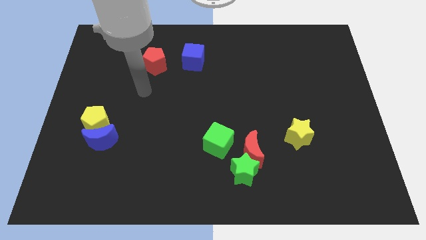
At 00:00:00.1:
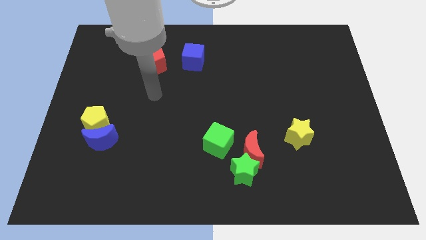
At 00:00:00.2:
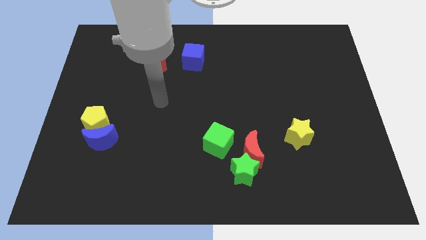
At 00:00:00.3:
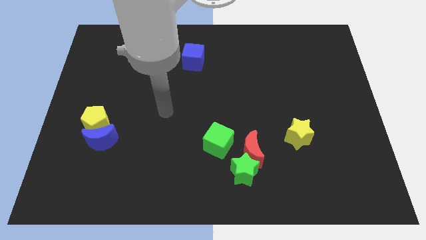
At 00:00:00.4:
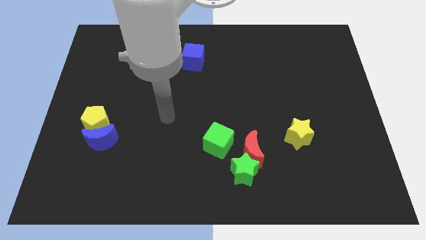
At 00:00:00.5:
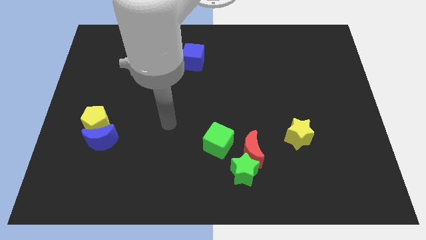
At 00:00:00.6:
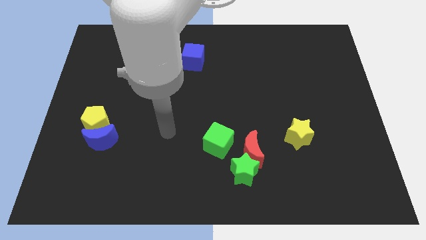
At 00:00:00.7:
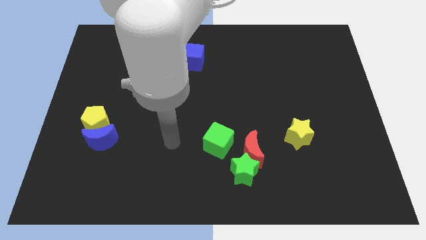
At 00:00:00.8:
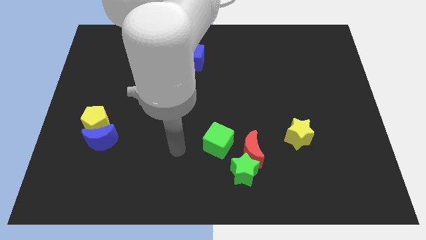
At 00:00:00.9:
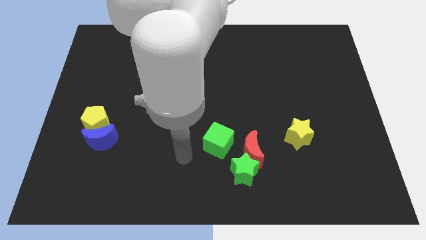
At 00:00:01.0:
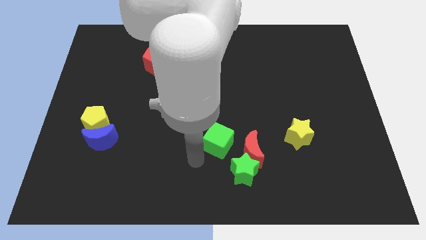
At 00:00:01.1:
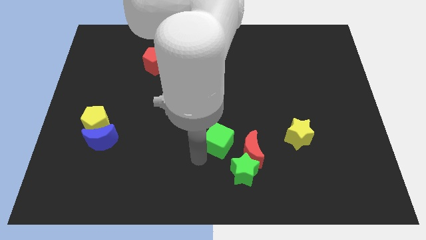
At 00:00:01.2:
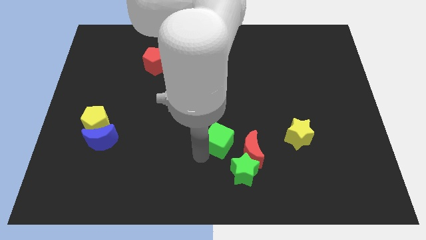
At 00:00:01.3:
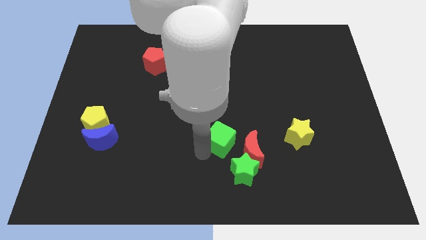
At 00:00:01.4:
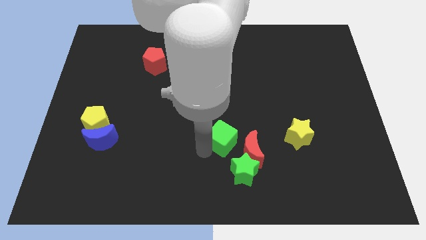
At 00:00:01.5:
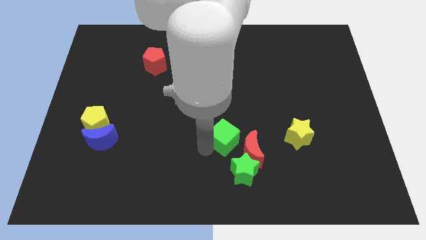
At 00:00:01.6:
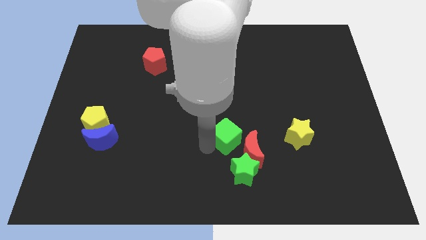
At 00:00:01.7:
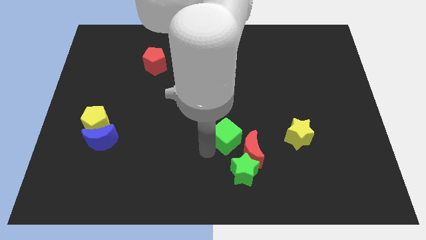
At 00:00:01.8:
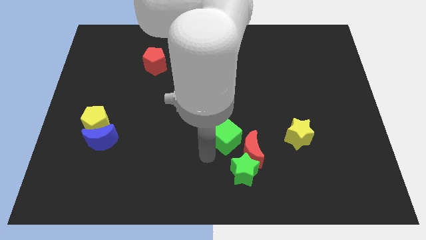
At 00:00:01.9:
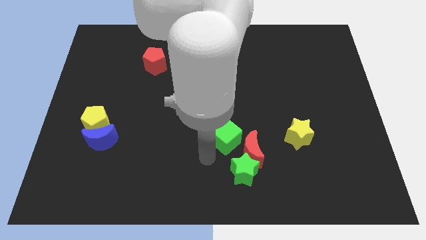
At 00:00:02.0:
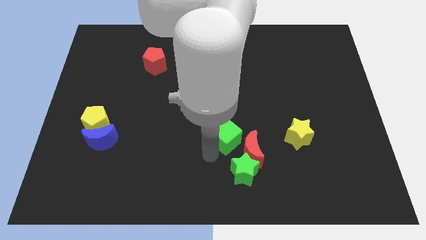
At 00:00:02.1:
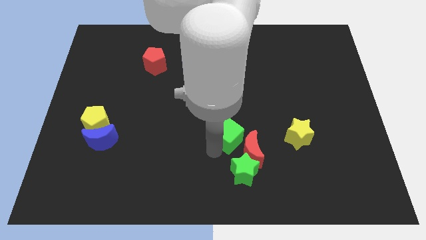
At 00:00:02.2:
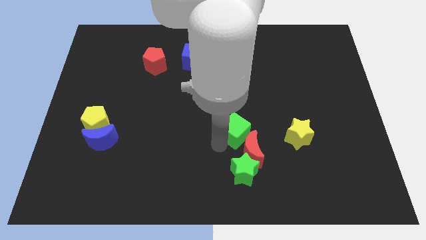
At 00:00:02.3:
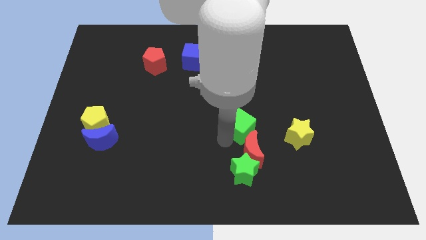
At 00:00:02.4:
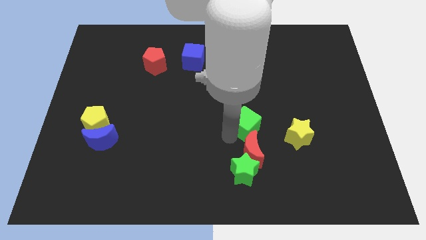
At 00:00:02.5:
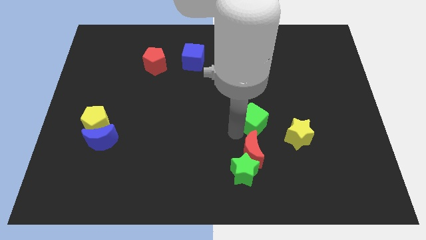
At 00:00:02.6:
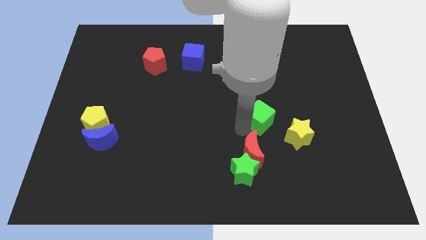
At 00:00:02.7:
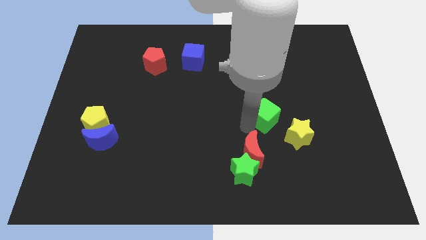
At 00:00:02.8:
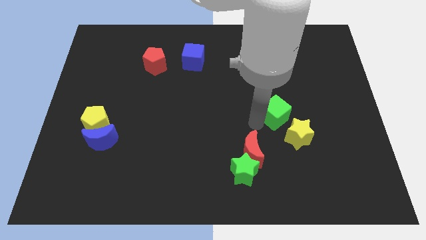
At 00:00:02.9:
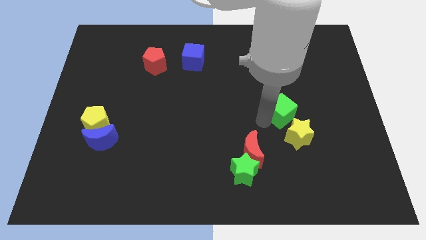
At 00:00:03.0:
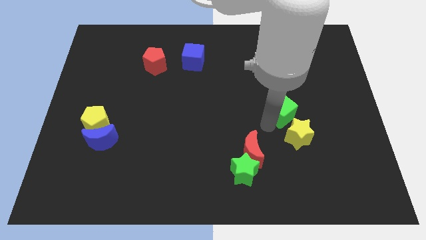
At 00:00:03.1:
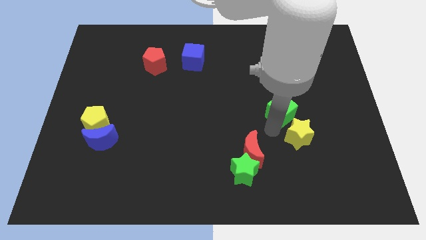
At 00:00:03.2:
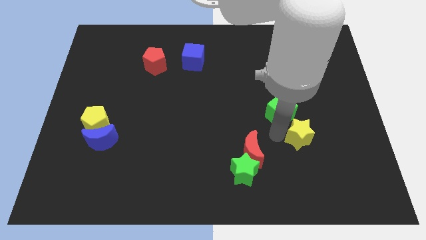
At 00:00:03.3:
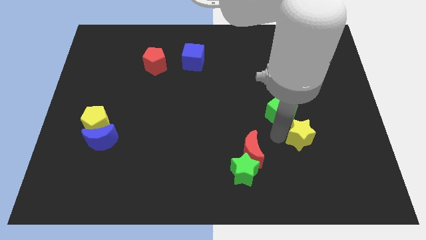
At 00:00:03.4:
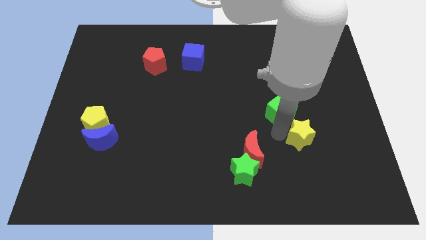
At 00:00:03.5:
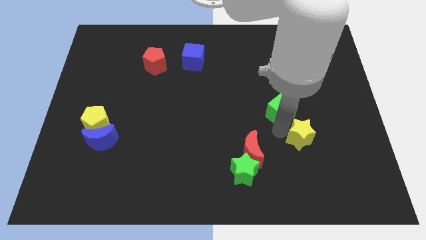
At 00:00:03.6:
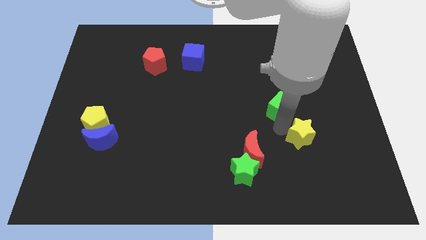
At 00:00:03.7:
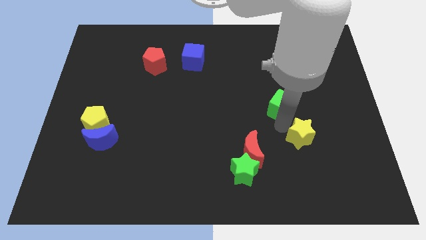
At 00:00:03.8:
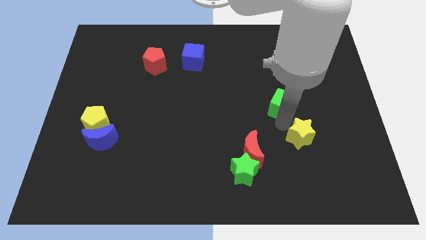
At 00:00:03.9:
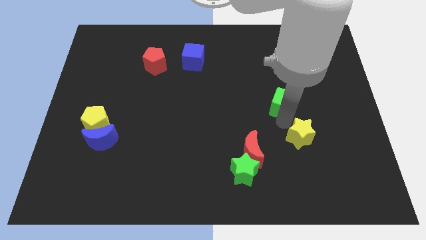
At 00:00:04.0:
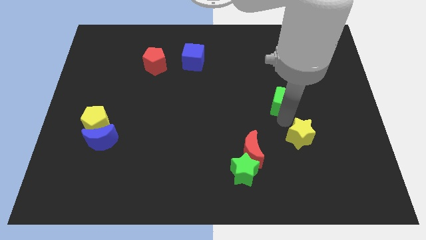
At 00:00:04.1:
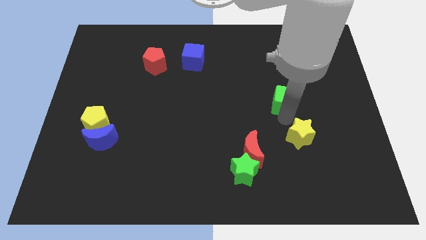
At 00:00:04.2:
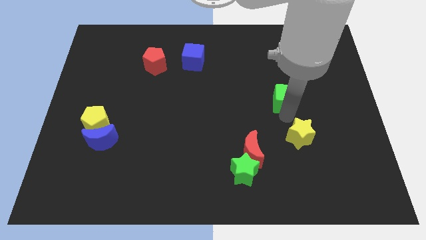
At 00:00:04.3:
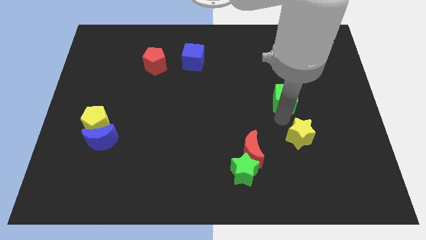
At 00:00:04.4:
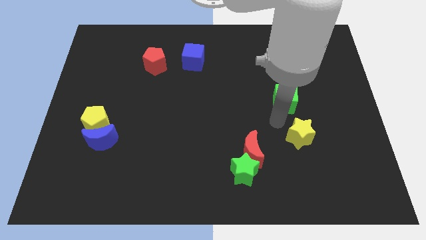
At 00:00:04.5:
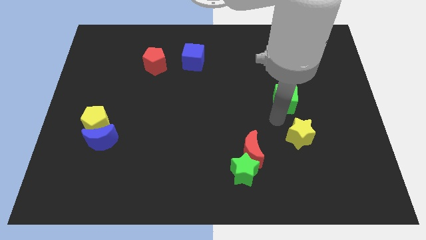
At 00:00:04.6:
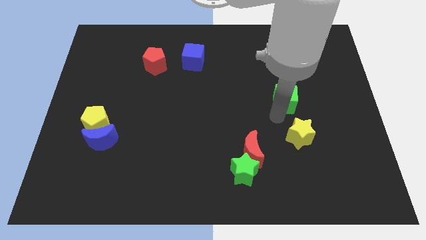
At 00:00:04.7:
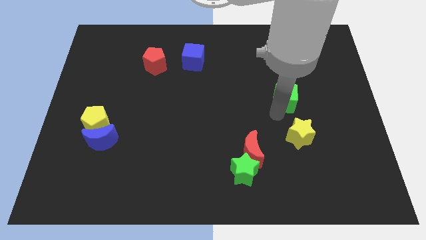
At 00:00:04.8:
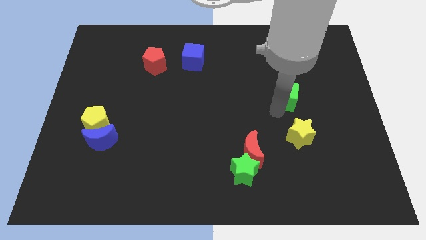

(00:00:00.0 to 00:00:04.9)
slide the green cube up and to the right diagonally

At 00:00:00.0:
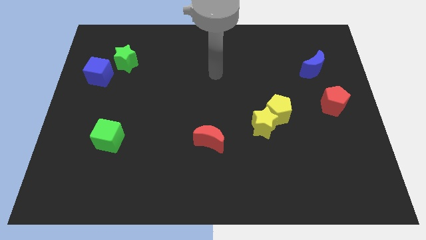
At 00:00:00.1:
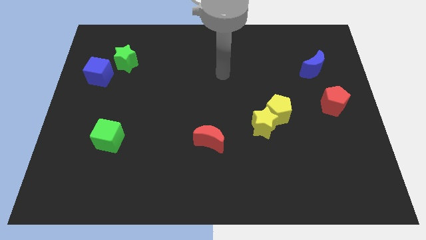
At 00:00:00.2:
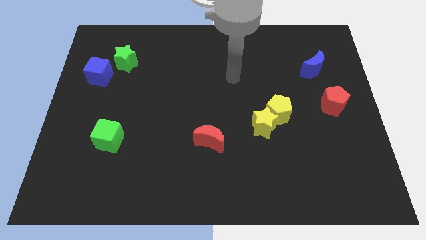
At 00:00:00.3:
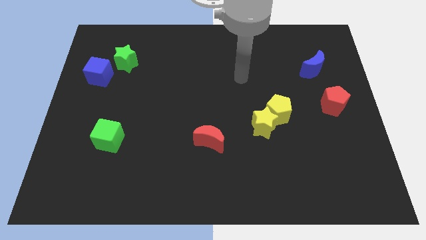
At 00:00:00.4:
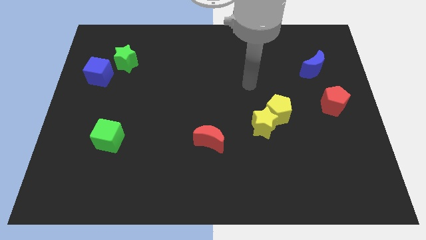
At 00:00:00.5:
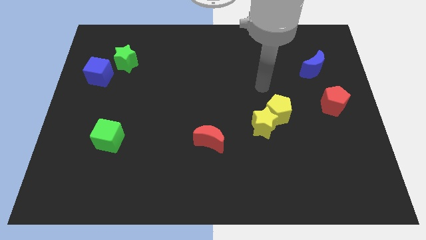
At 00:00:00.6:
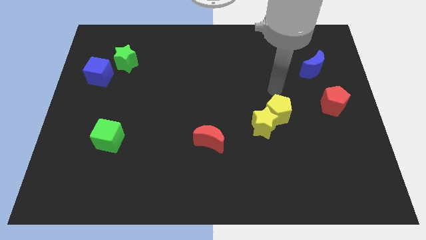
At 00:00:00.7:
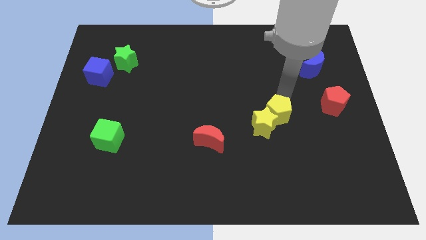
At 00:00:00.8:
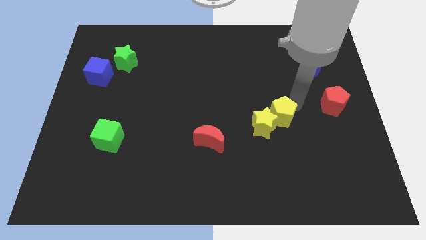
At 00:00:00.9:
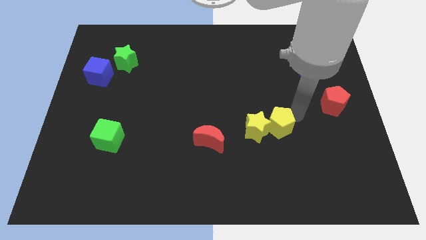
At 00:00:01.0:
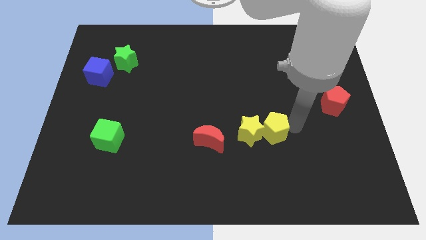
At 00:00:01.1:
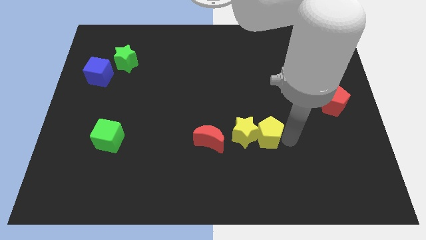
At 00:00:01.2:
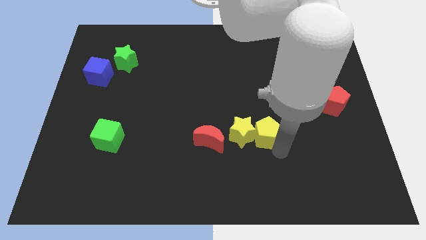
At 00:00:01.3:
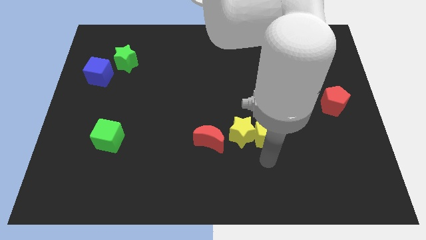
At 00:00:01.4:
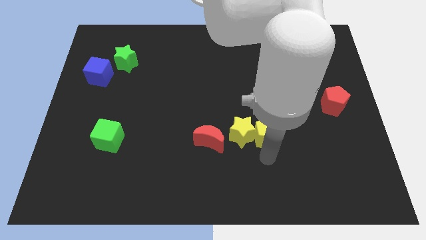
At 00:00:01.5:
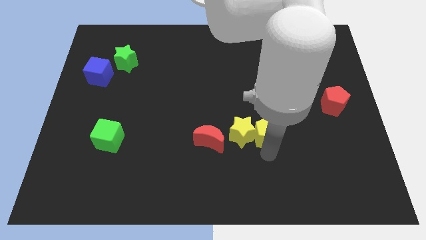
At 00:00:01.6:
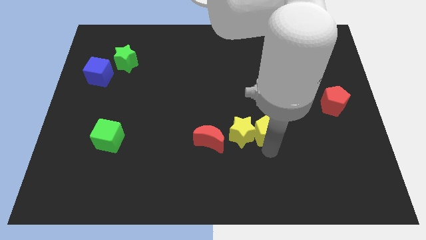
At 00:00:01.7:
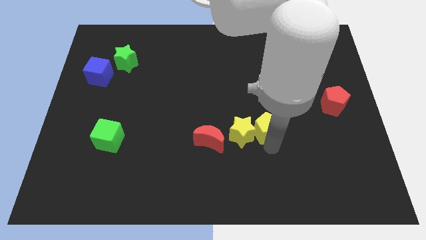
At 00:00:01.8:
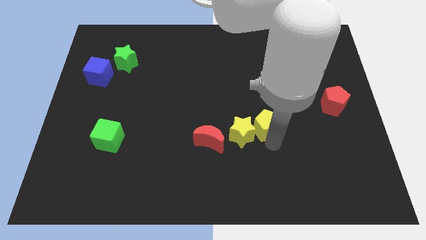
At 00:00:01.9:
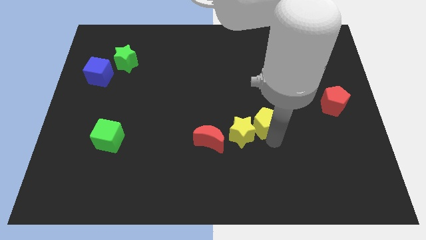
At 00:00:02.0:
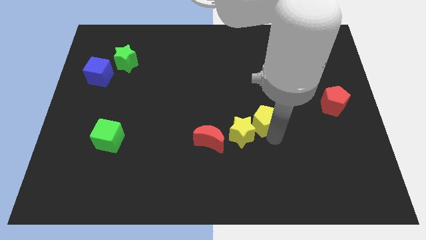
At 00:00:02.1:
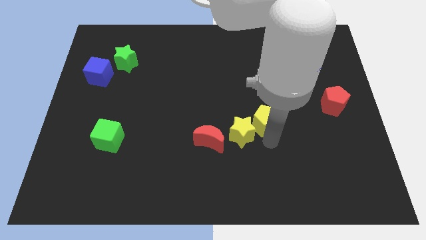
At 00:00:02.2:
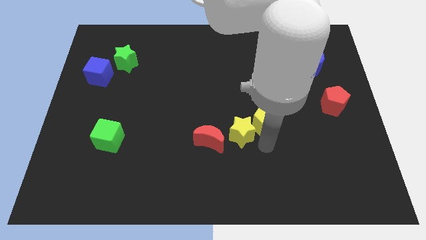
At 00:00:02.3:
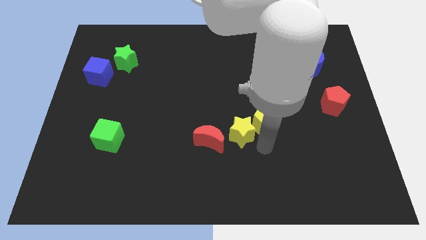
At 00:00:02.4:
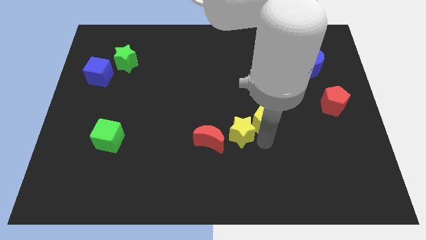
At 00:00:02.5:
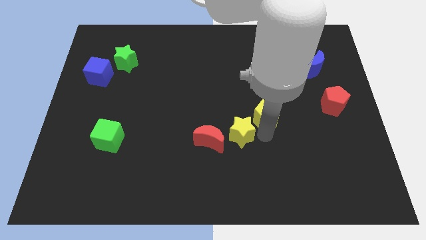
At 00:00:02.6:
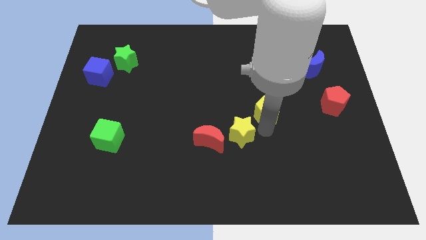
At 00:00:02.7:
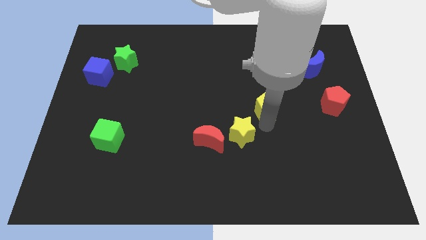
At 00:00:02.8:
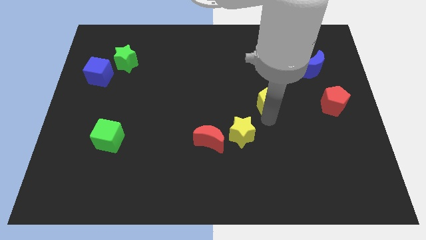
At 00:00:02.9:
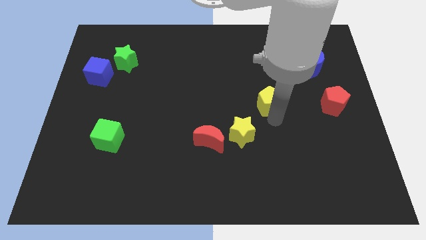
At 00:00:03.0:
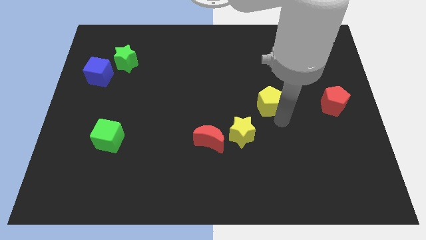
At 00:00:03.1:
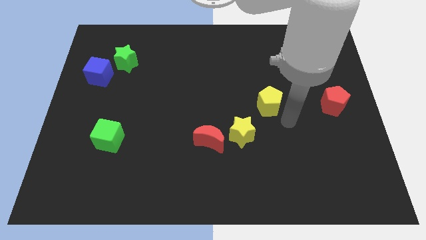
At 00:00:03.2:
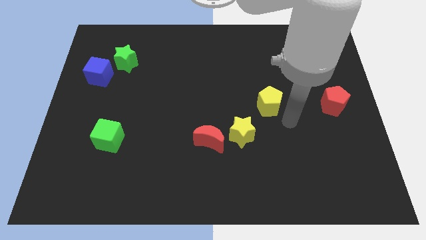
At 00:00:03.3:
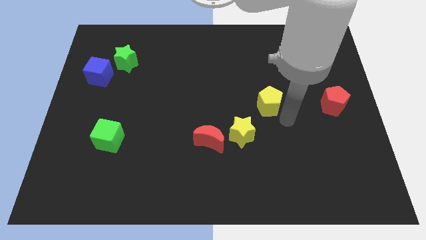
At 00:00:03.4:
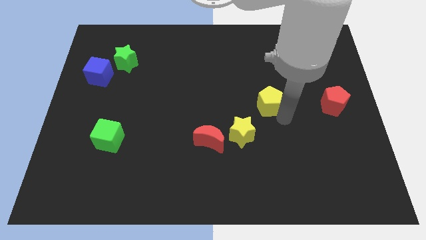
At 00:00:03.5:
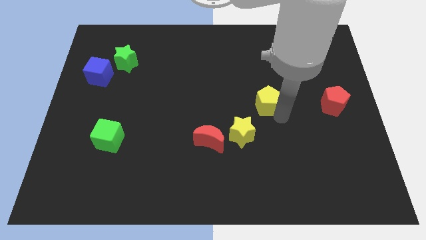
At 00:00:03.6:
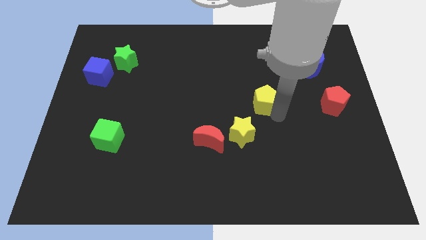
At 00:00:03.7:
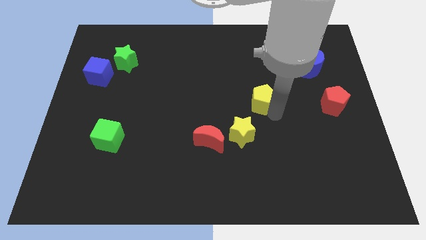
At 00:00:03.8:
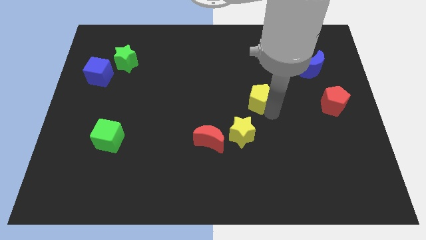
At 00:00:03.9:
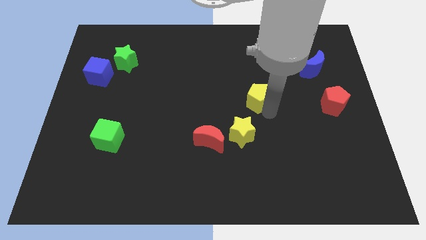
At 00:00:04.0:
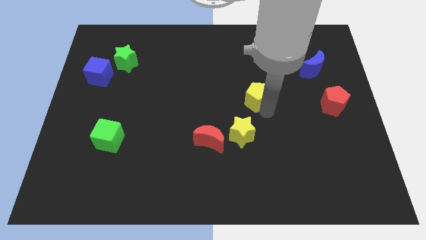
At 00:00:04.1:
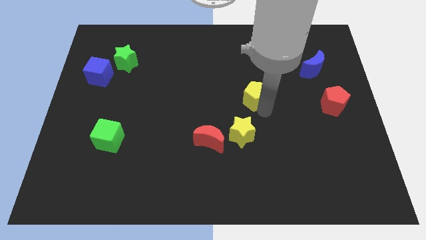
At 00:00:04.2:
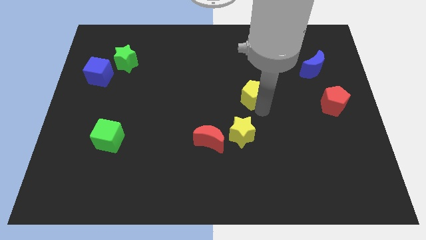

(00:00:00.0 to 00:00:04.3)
slightly slide the yellow pentagon up and then to the left
